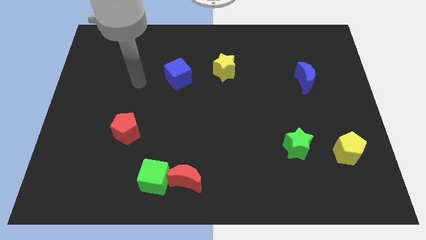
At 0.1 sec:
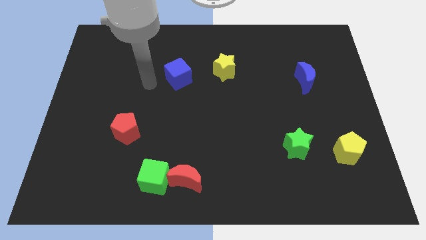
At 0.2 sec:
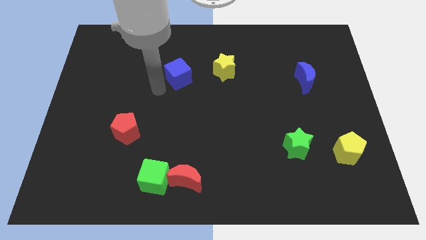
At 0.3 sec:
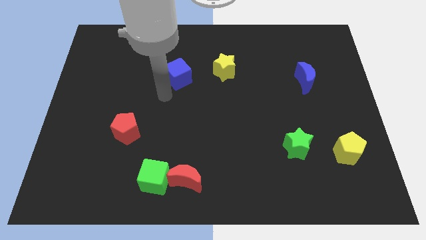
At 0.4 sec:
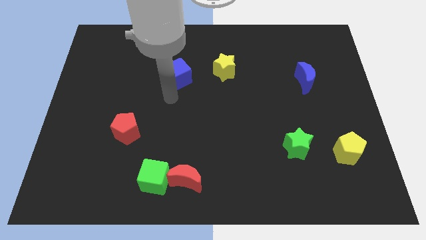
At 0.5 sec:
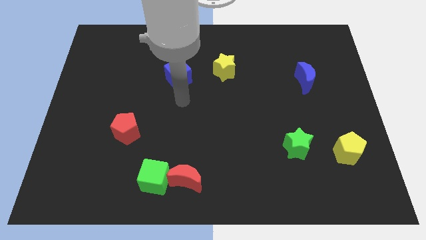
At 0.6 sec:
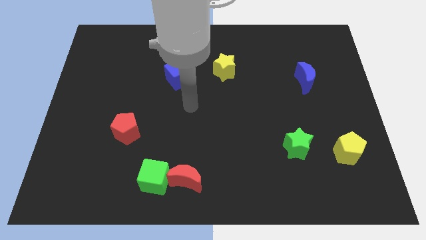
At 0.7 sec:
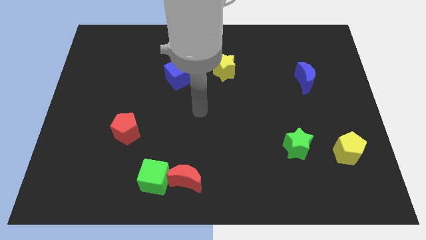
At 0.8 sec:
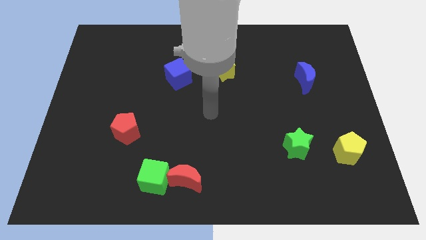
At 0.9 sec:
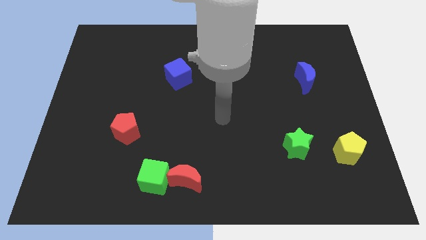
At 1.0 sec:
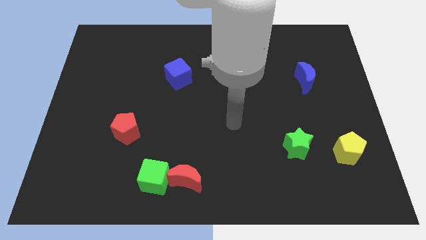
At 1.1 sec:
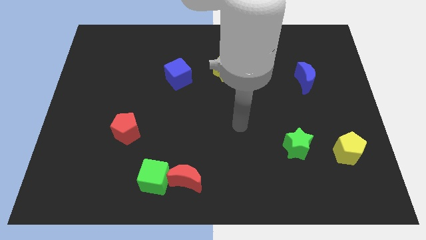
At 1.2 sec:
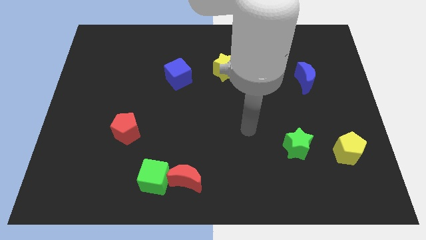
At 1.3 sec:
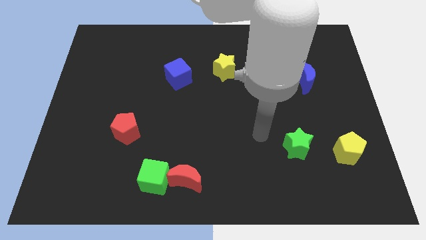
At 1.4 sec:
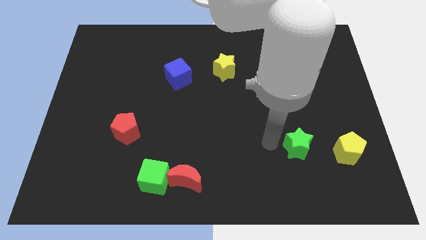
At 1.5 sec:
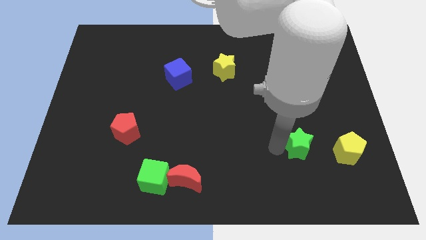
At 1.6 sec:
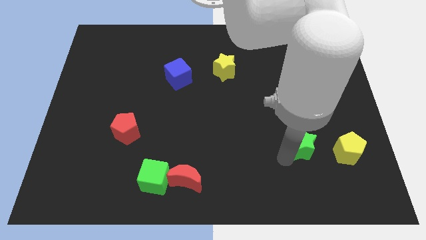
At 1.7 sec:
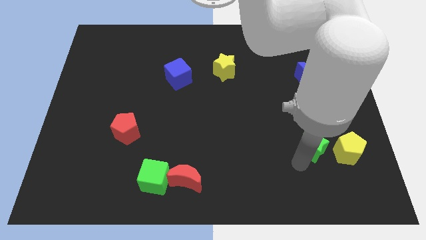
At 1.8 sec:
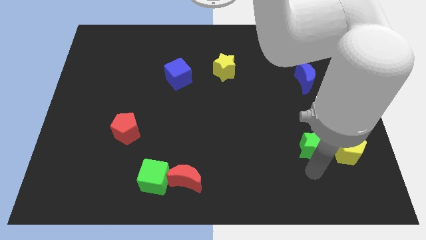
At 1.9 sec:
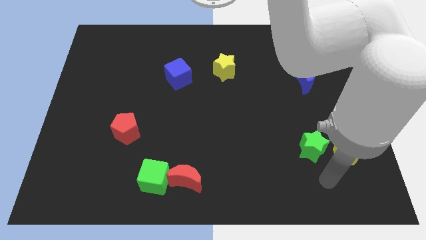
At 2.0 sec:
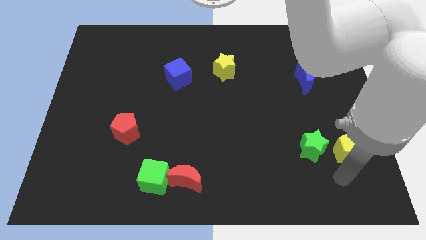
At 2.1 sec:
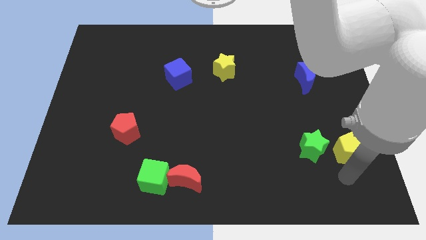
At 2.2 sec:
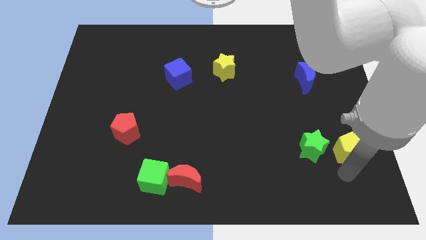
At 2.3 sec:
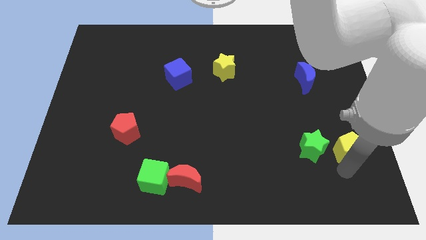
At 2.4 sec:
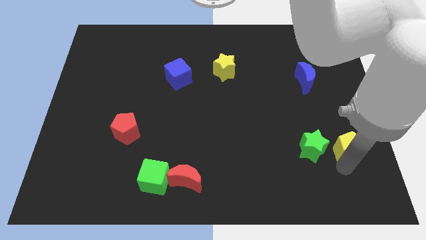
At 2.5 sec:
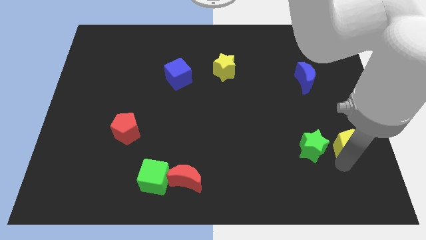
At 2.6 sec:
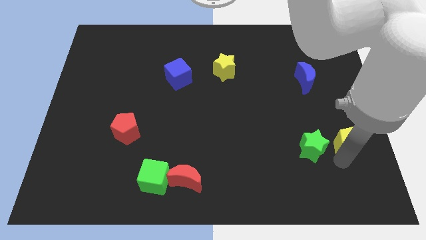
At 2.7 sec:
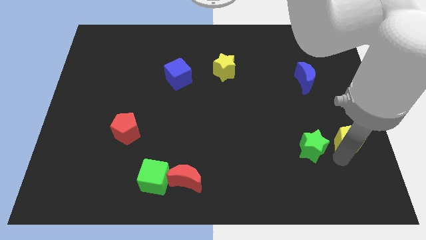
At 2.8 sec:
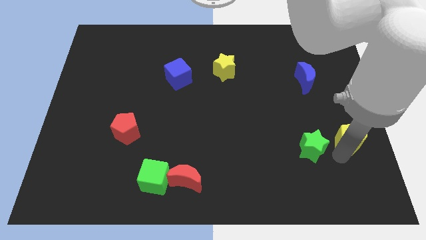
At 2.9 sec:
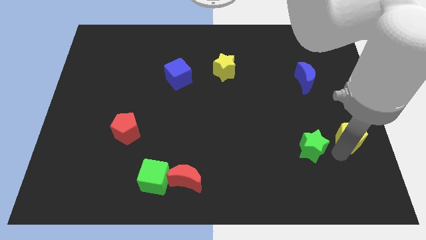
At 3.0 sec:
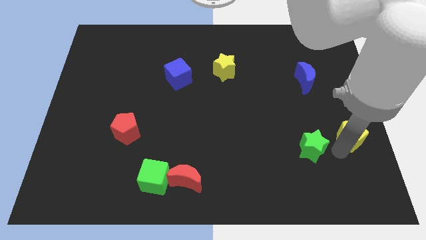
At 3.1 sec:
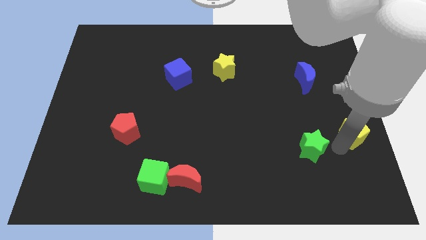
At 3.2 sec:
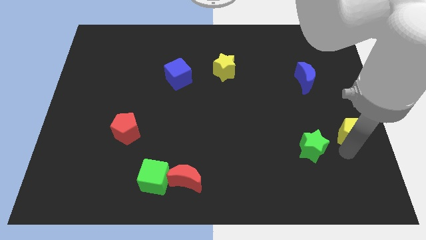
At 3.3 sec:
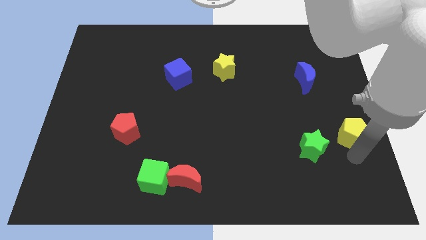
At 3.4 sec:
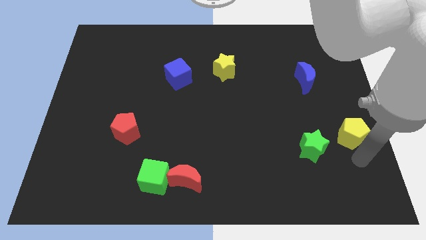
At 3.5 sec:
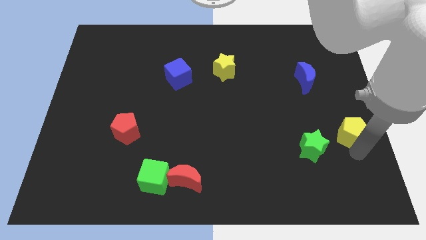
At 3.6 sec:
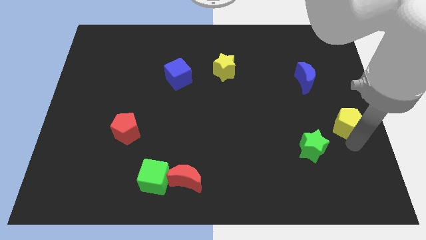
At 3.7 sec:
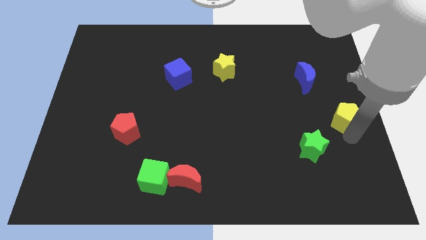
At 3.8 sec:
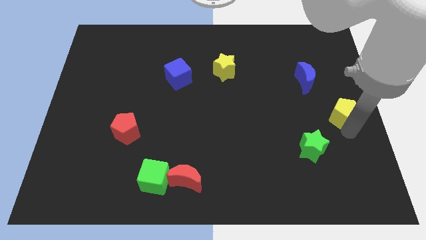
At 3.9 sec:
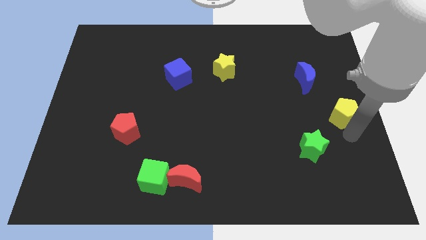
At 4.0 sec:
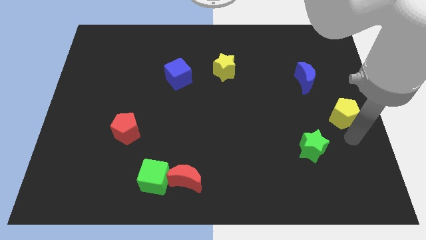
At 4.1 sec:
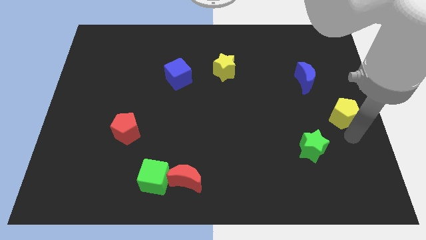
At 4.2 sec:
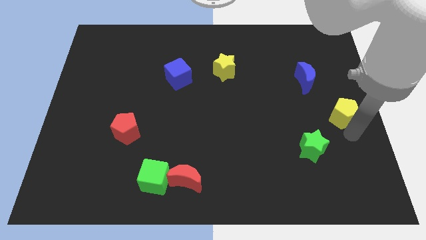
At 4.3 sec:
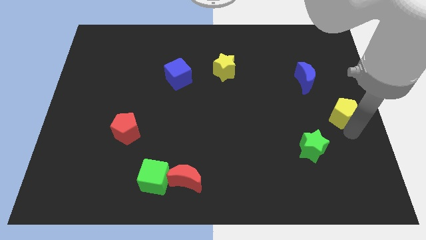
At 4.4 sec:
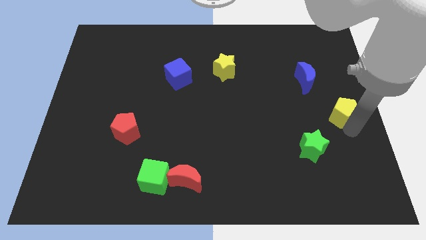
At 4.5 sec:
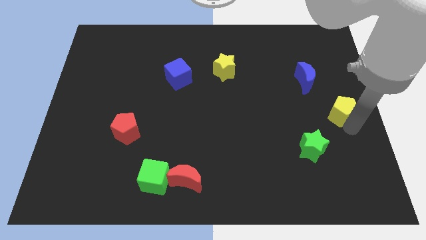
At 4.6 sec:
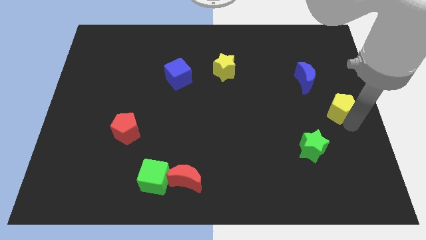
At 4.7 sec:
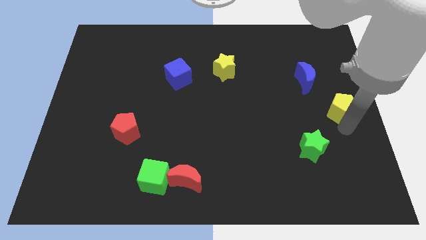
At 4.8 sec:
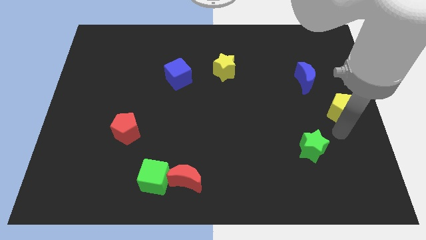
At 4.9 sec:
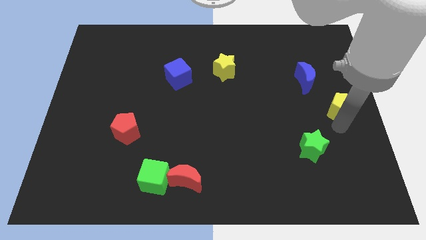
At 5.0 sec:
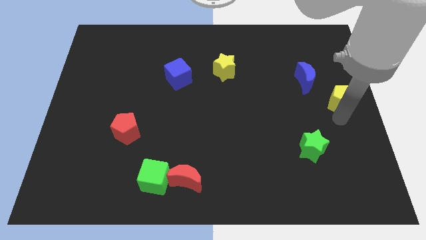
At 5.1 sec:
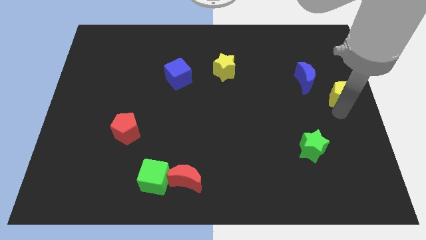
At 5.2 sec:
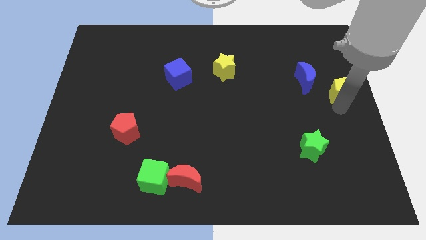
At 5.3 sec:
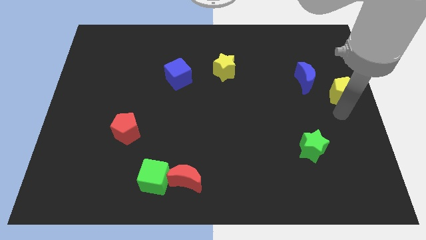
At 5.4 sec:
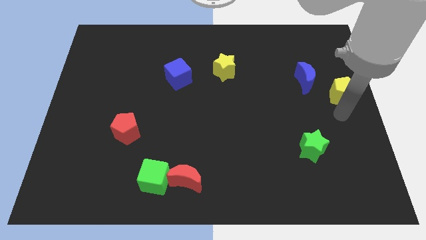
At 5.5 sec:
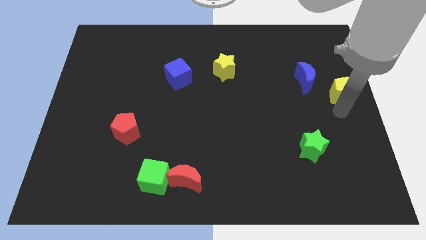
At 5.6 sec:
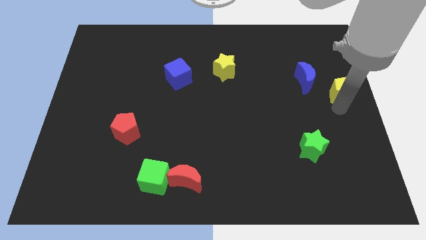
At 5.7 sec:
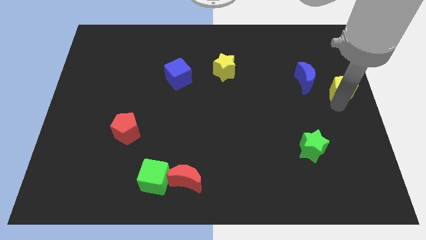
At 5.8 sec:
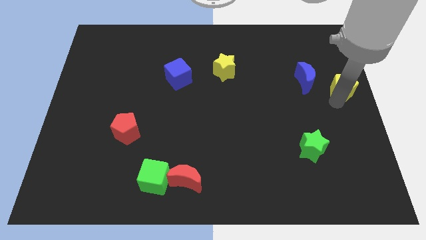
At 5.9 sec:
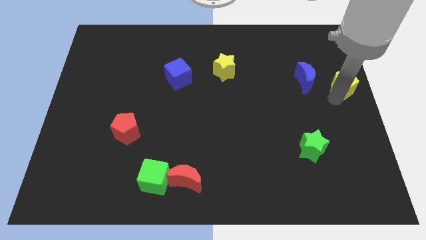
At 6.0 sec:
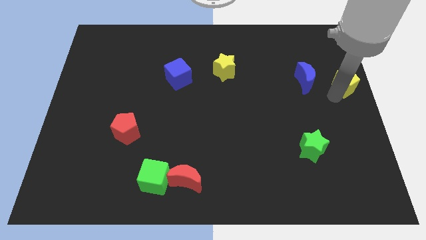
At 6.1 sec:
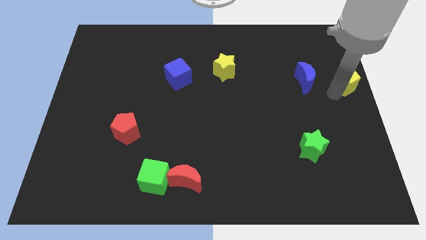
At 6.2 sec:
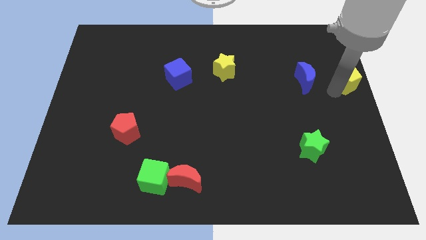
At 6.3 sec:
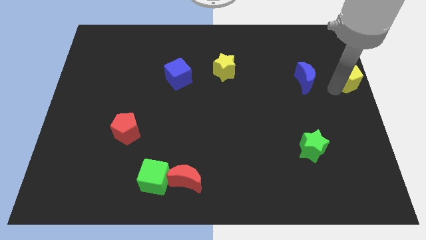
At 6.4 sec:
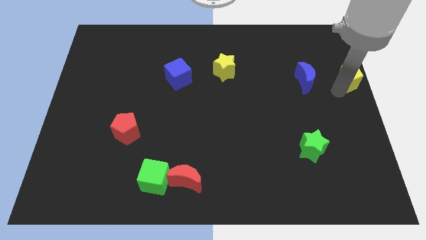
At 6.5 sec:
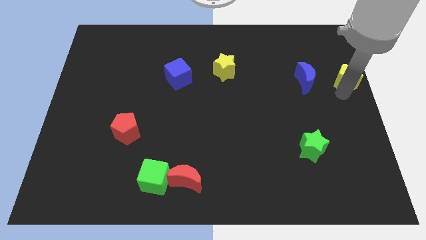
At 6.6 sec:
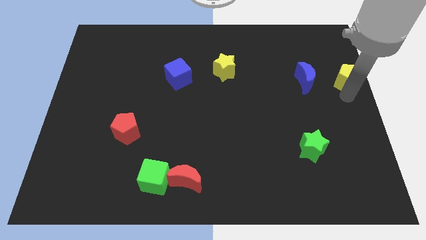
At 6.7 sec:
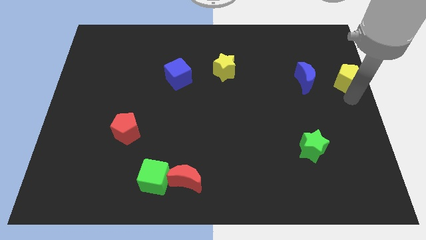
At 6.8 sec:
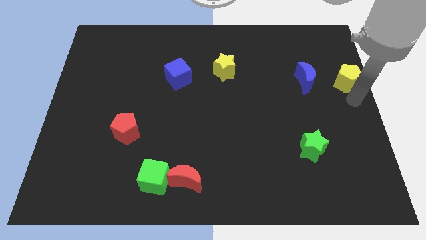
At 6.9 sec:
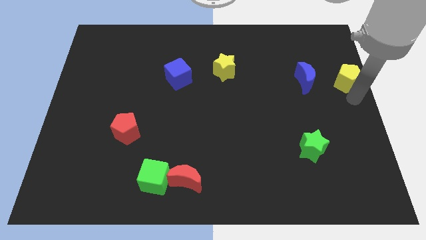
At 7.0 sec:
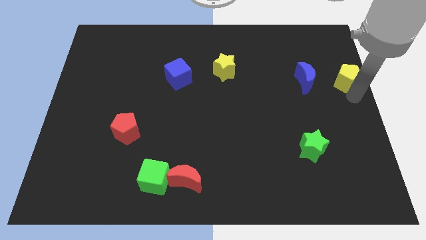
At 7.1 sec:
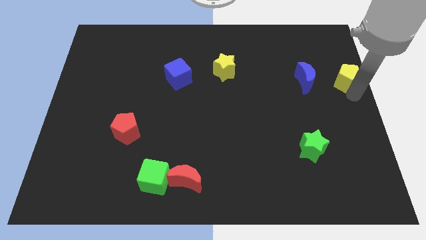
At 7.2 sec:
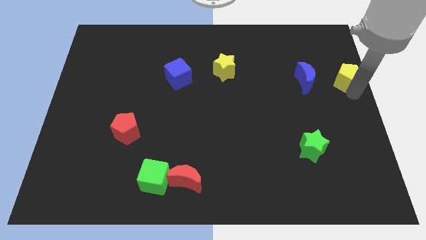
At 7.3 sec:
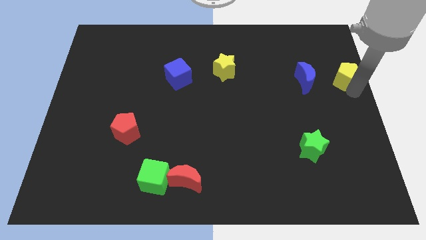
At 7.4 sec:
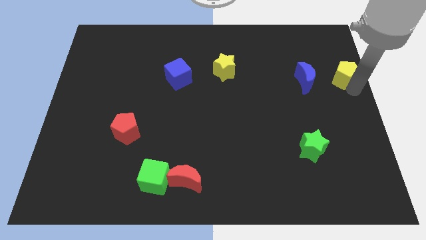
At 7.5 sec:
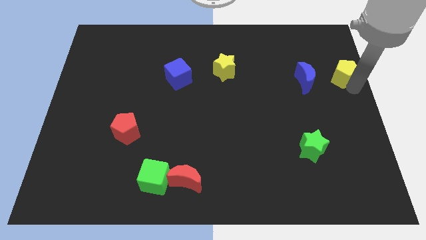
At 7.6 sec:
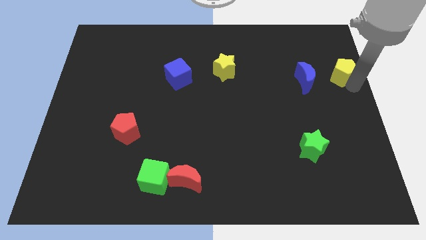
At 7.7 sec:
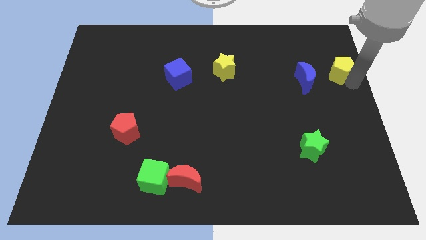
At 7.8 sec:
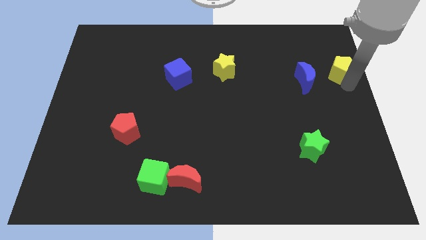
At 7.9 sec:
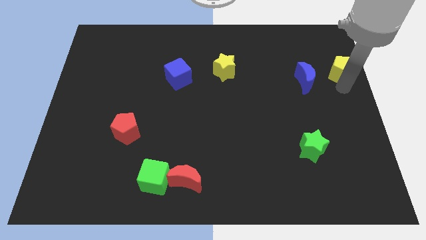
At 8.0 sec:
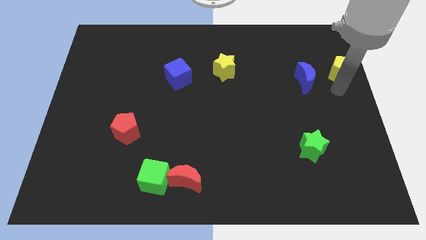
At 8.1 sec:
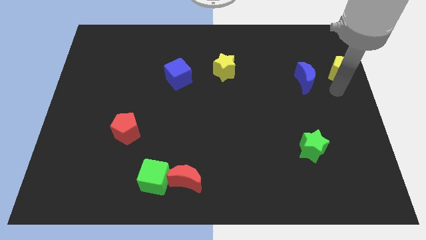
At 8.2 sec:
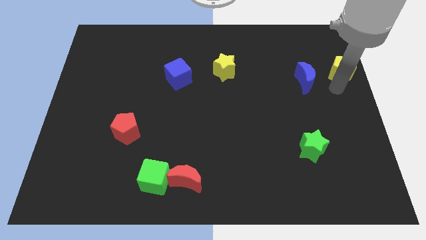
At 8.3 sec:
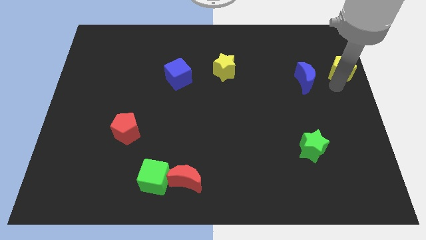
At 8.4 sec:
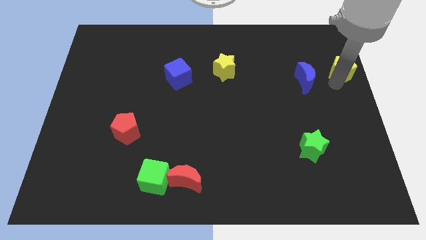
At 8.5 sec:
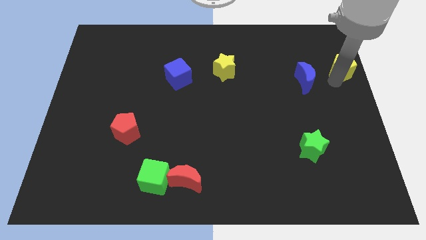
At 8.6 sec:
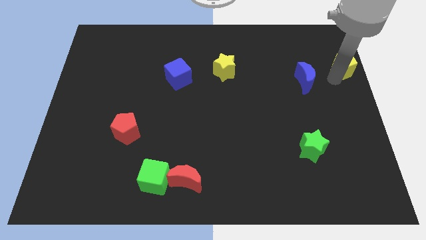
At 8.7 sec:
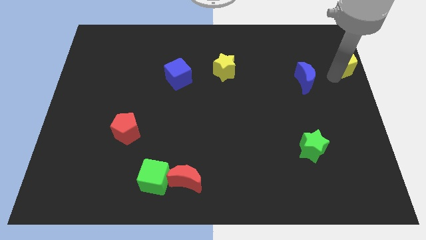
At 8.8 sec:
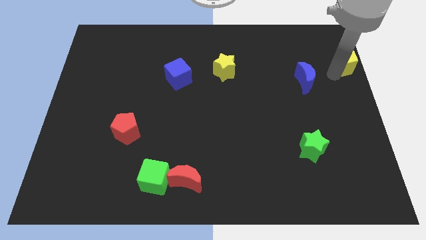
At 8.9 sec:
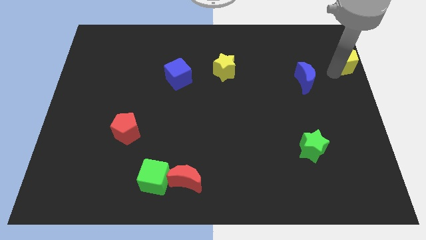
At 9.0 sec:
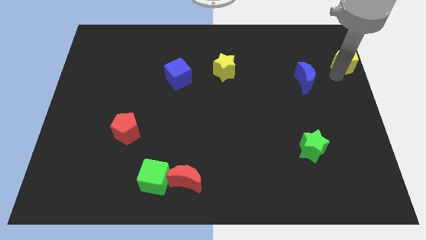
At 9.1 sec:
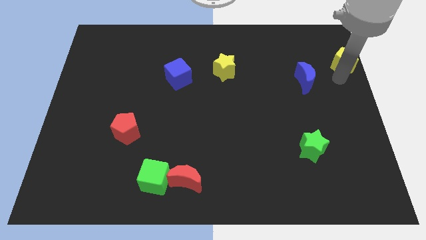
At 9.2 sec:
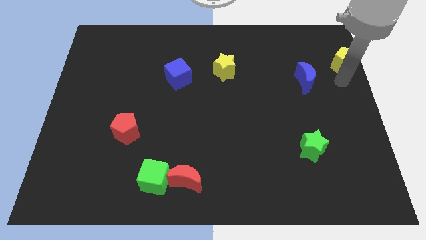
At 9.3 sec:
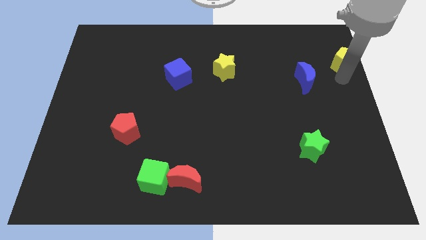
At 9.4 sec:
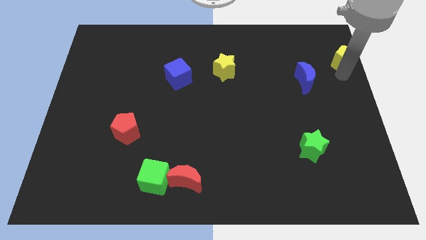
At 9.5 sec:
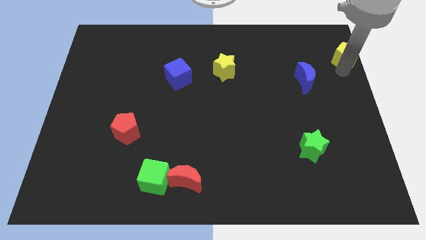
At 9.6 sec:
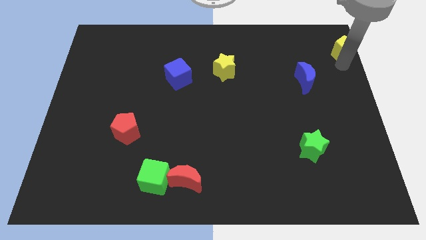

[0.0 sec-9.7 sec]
move the yellow pentagon to the top right
